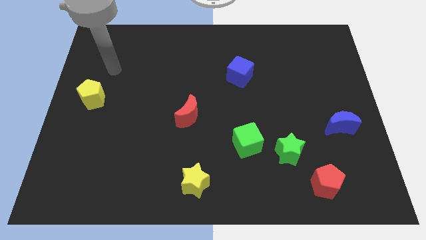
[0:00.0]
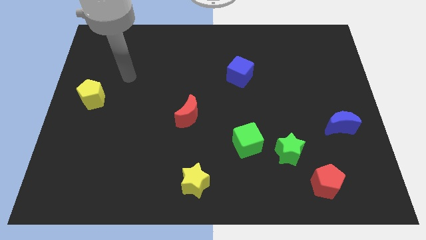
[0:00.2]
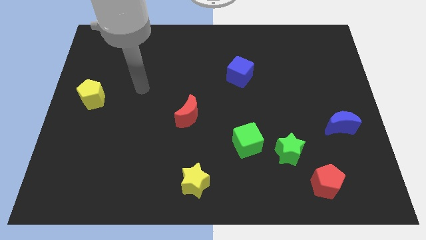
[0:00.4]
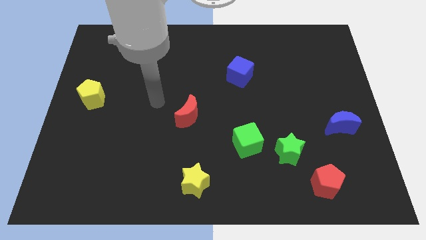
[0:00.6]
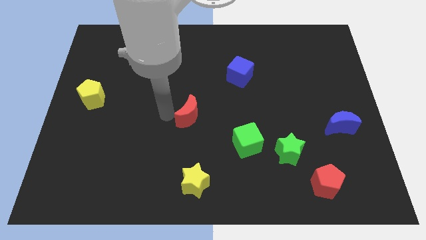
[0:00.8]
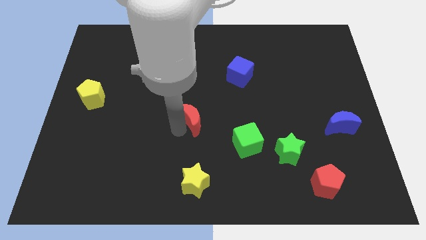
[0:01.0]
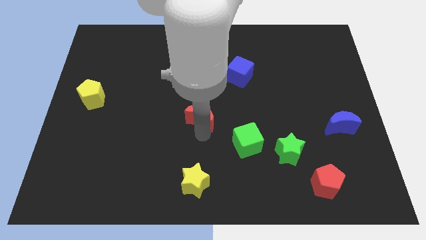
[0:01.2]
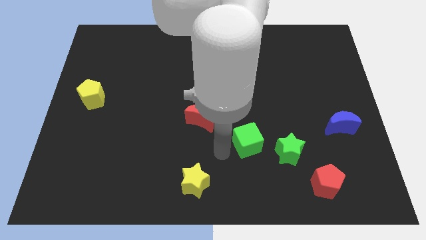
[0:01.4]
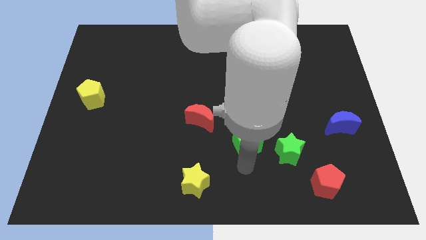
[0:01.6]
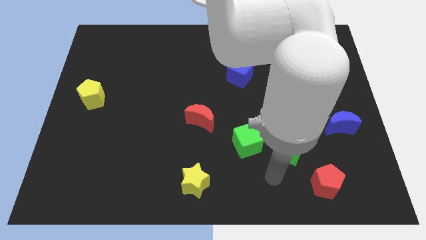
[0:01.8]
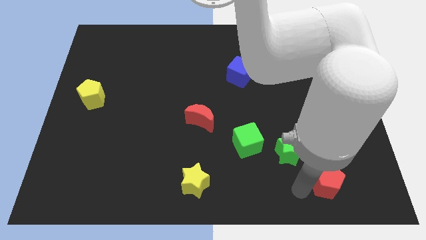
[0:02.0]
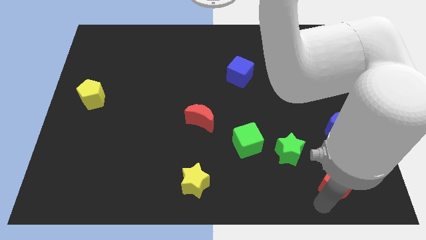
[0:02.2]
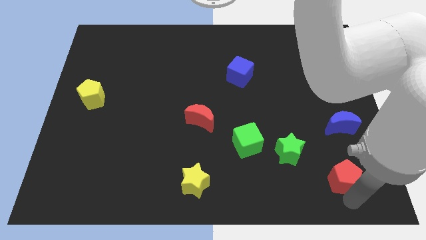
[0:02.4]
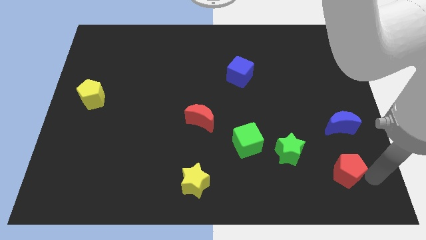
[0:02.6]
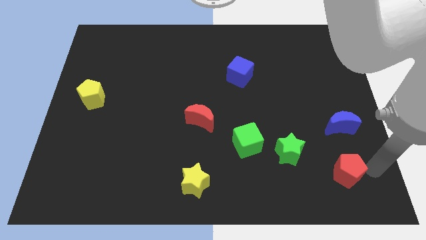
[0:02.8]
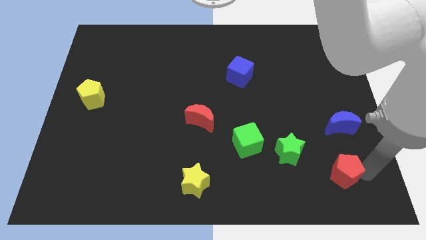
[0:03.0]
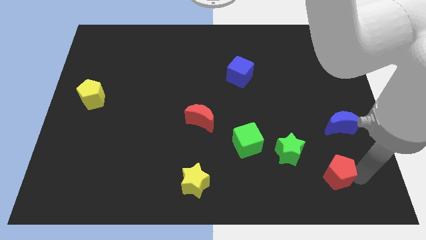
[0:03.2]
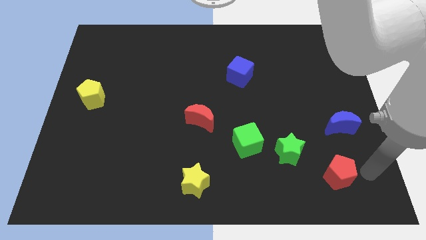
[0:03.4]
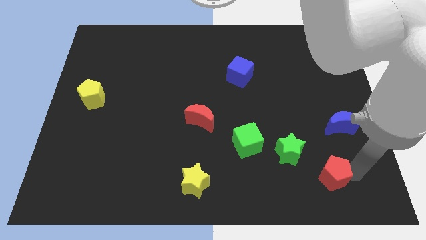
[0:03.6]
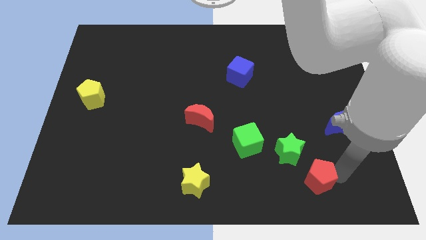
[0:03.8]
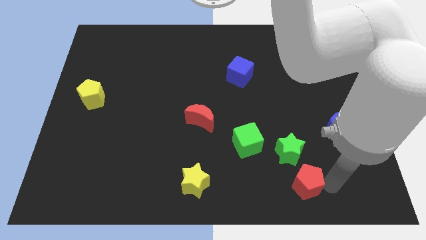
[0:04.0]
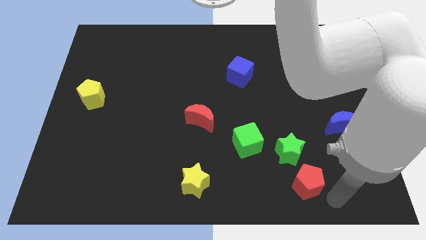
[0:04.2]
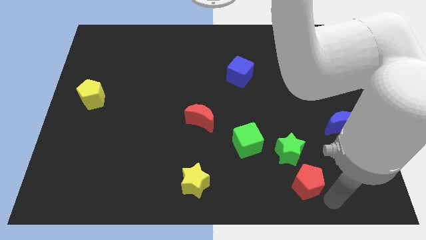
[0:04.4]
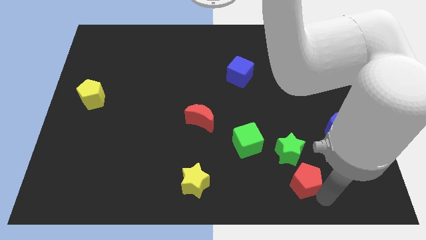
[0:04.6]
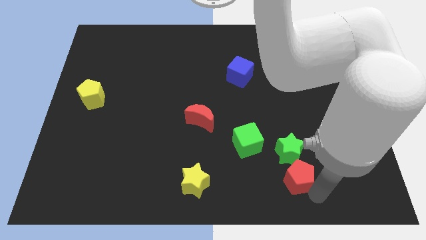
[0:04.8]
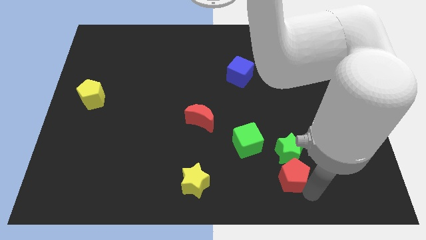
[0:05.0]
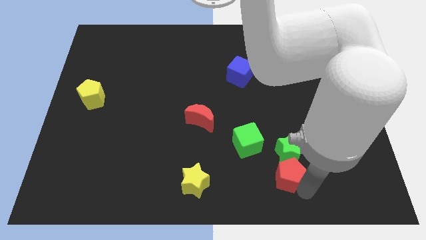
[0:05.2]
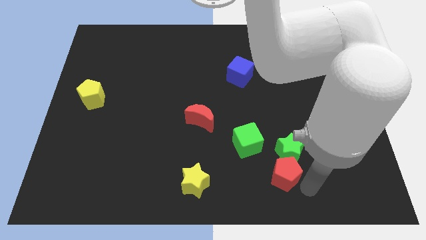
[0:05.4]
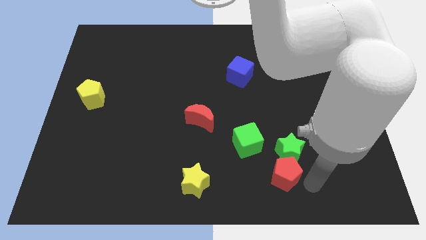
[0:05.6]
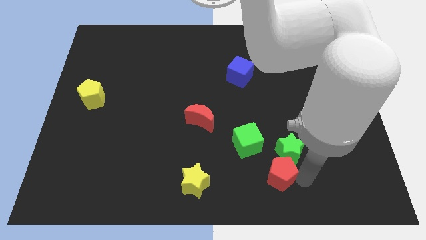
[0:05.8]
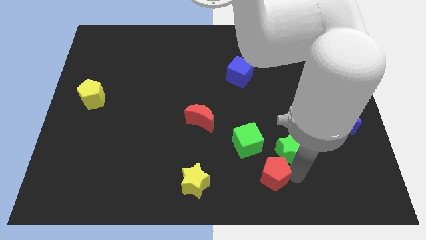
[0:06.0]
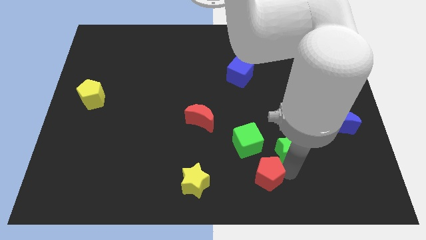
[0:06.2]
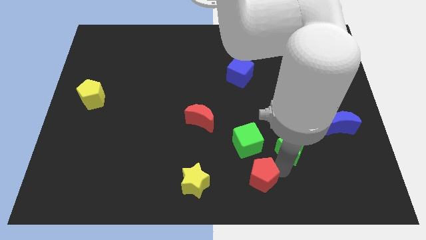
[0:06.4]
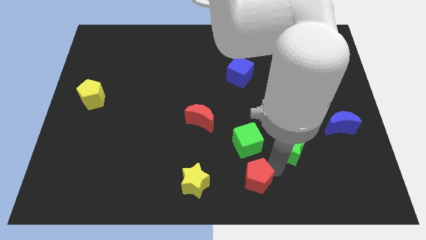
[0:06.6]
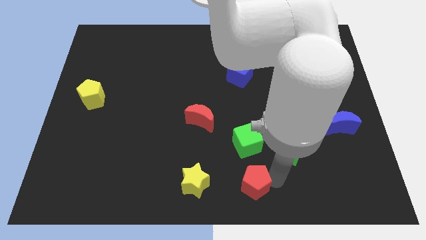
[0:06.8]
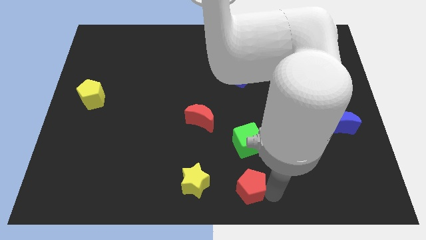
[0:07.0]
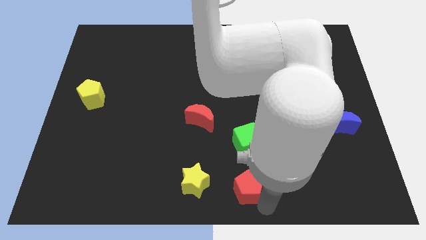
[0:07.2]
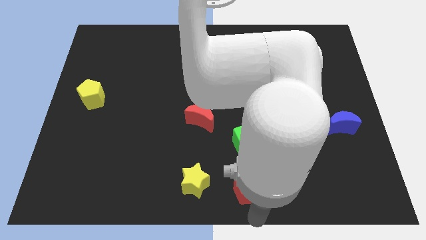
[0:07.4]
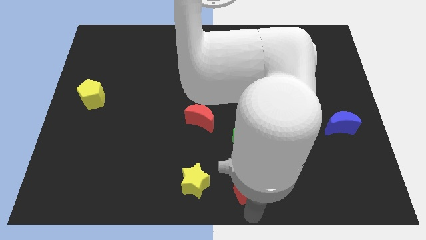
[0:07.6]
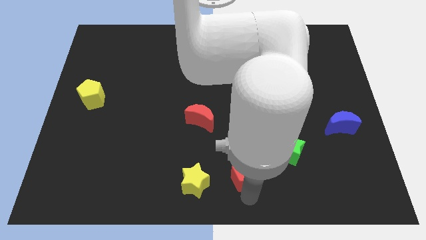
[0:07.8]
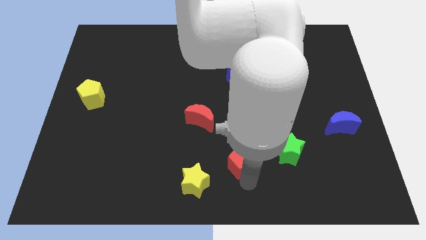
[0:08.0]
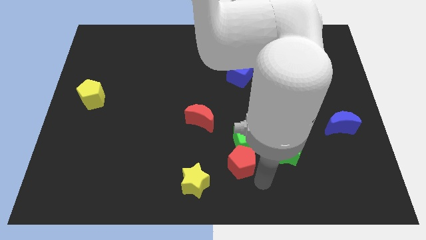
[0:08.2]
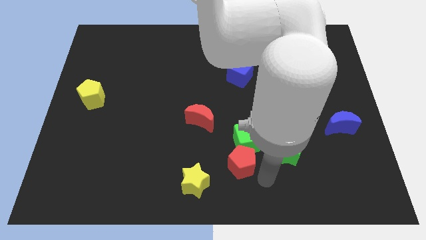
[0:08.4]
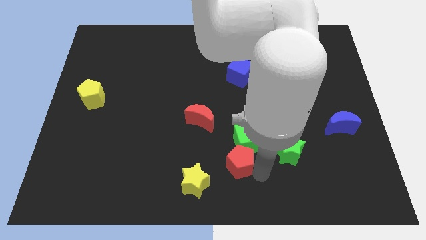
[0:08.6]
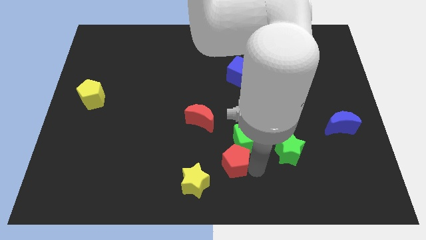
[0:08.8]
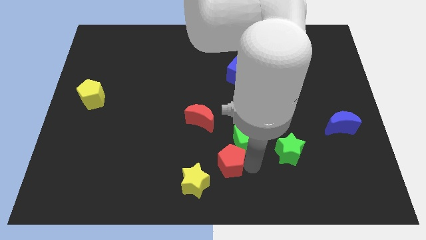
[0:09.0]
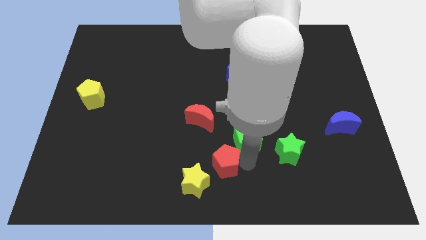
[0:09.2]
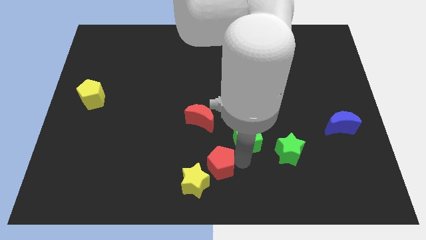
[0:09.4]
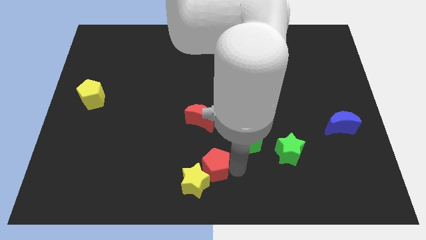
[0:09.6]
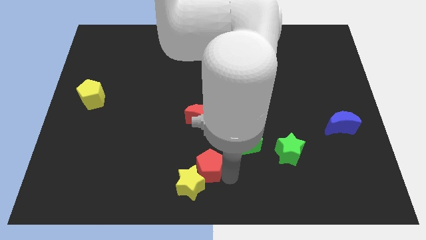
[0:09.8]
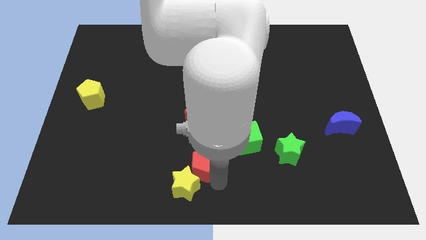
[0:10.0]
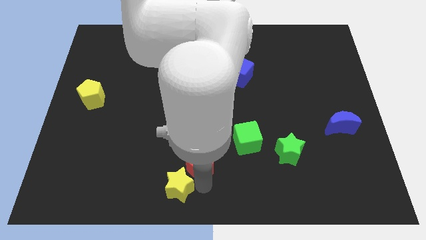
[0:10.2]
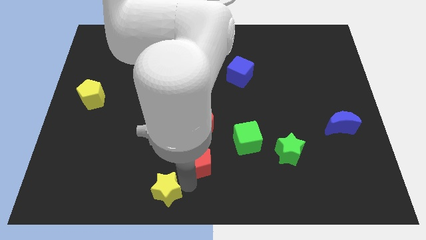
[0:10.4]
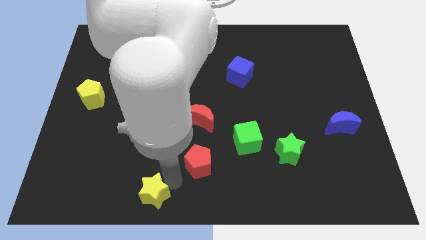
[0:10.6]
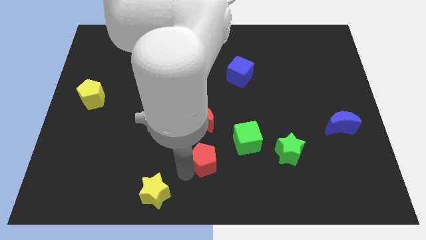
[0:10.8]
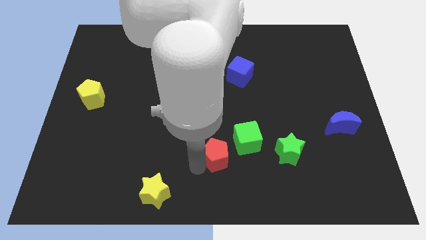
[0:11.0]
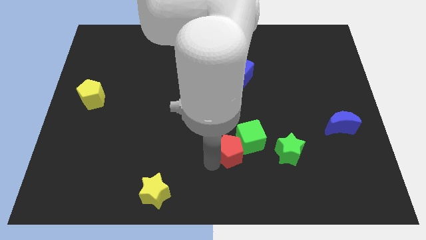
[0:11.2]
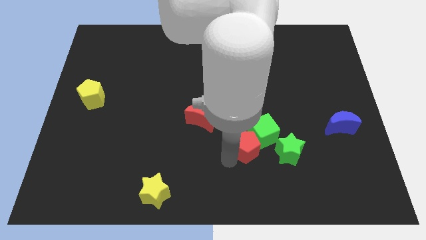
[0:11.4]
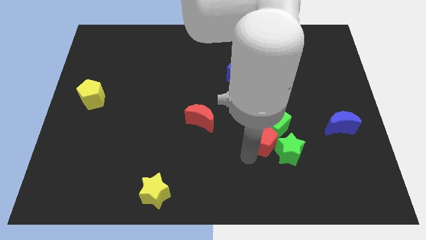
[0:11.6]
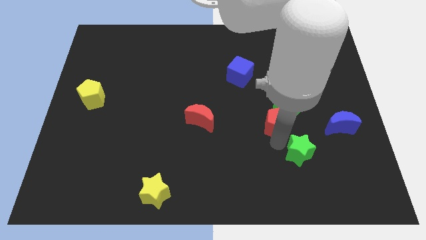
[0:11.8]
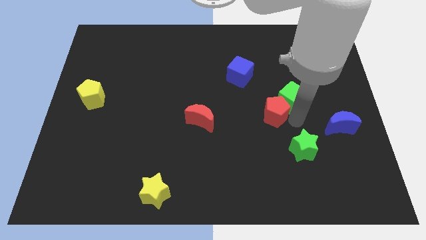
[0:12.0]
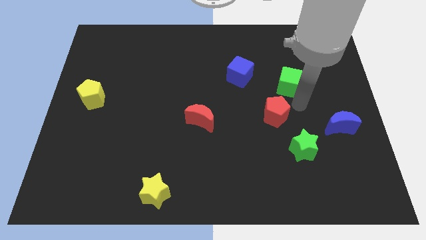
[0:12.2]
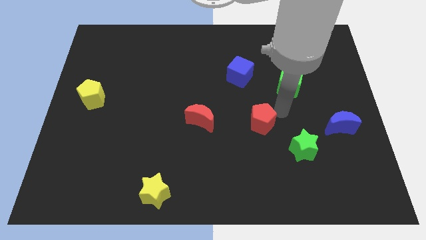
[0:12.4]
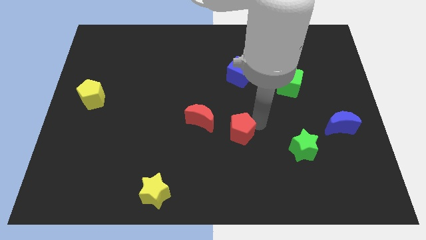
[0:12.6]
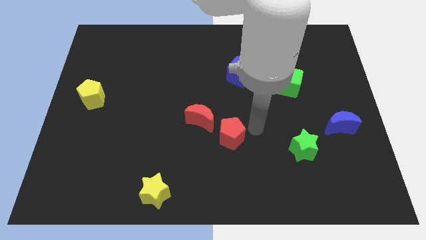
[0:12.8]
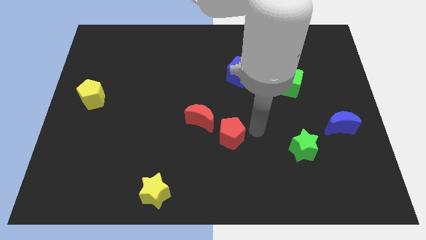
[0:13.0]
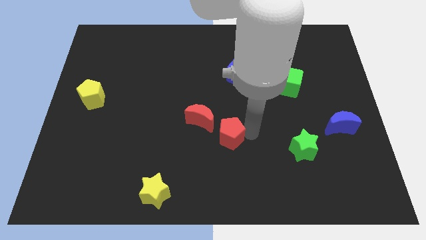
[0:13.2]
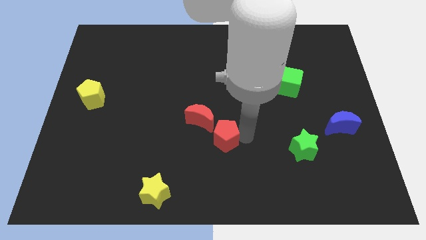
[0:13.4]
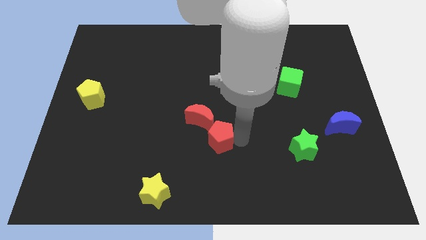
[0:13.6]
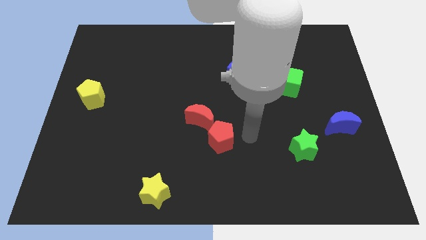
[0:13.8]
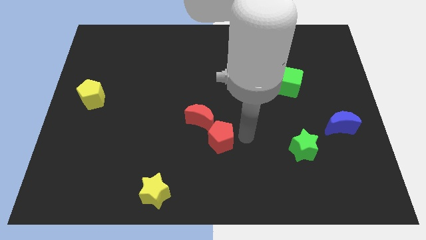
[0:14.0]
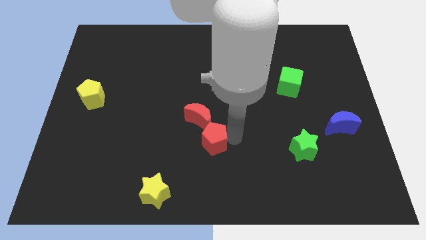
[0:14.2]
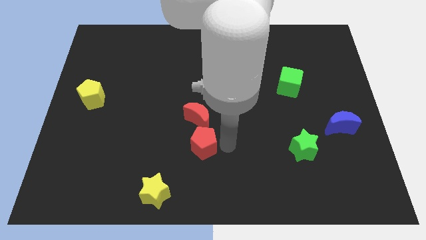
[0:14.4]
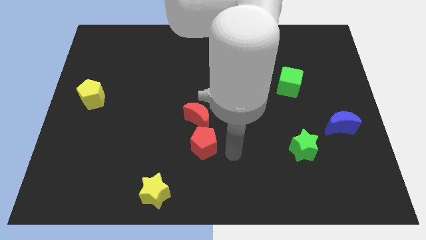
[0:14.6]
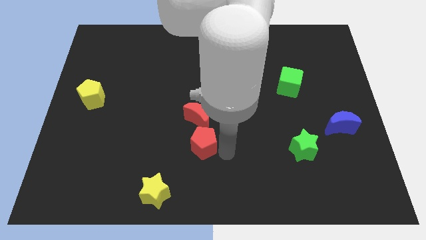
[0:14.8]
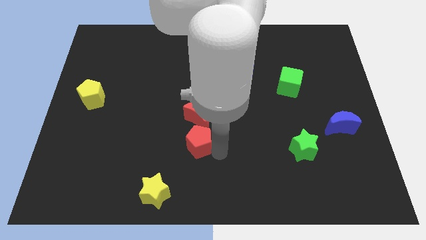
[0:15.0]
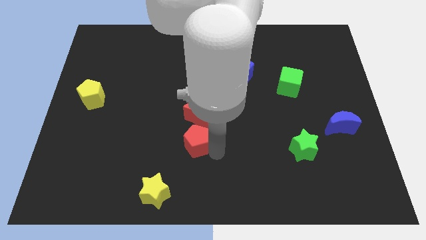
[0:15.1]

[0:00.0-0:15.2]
slide the red pentagon diagonally down and to the left of the red moon
